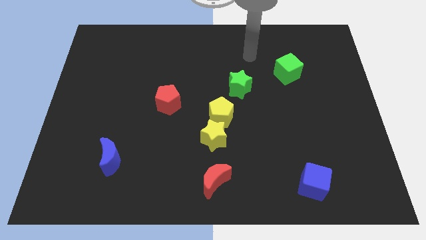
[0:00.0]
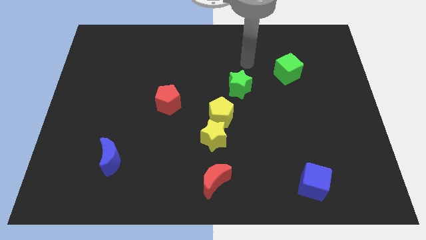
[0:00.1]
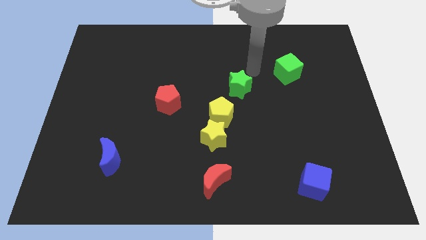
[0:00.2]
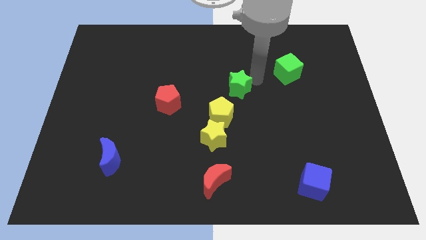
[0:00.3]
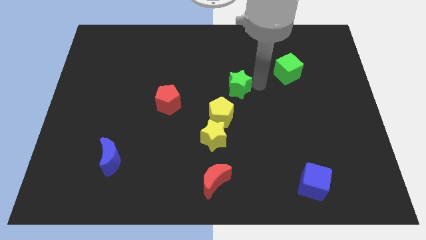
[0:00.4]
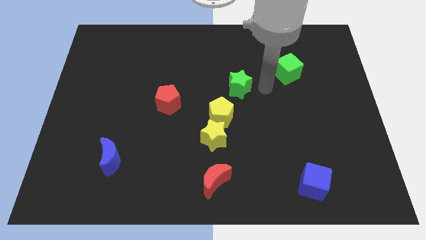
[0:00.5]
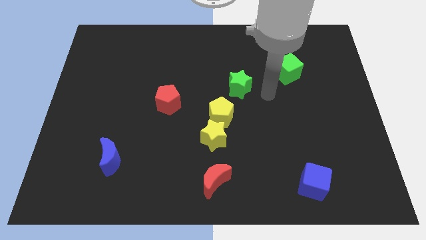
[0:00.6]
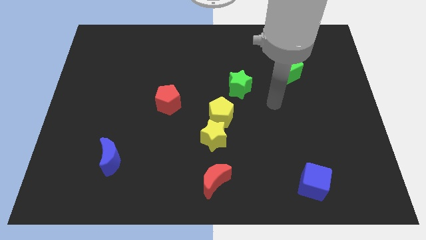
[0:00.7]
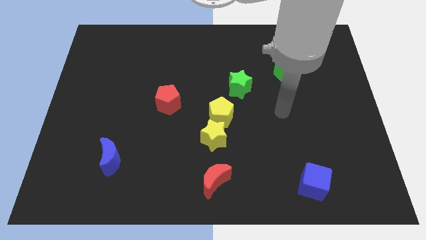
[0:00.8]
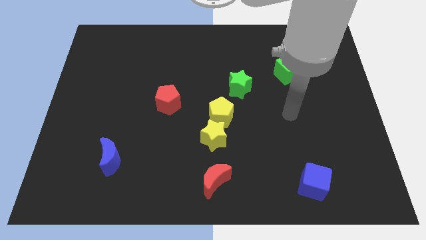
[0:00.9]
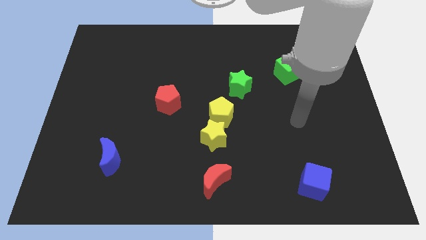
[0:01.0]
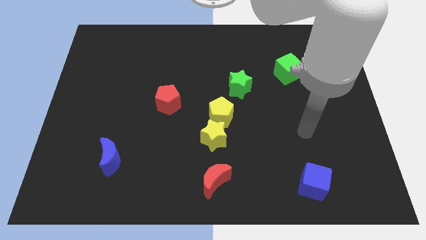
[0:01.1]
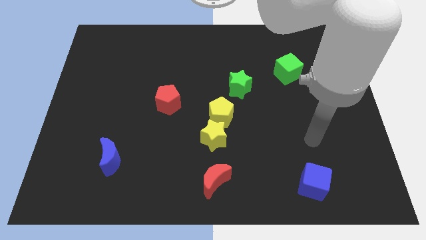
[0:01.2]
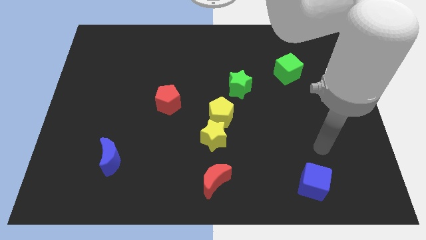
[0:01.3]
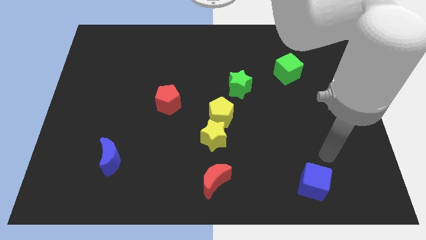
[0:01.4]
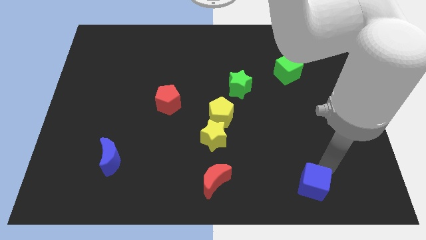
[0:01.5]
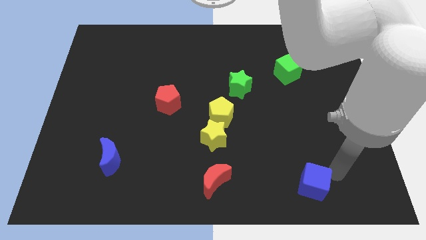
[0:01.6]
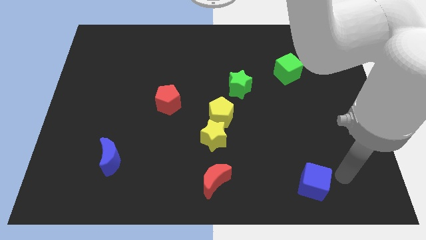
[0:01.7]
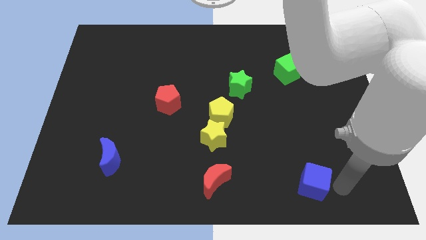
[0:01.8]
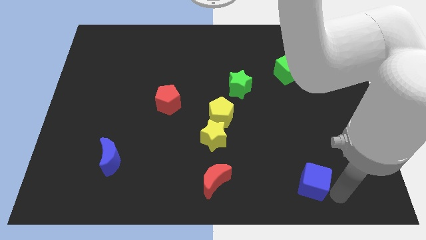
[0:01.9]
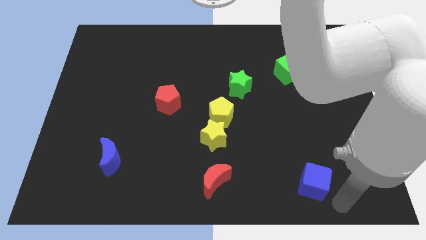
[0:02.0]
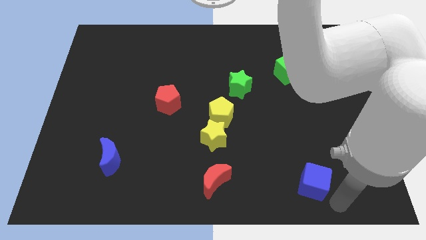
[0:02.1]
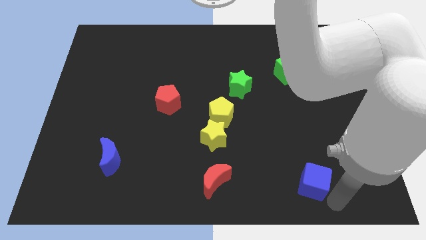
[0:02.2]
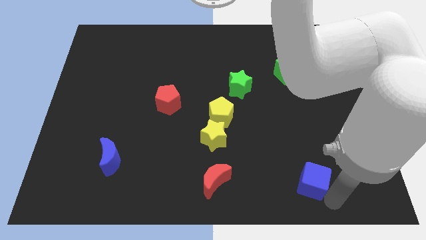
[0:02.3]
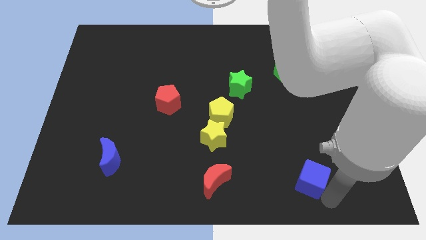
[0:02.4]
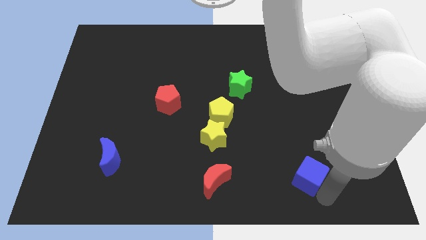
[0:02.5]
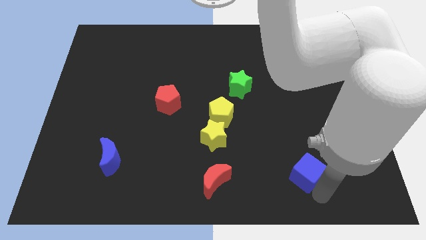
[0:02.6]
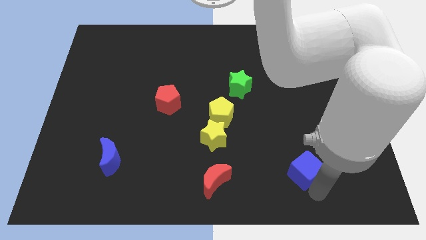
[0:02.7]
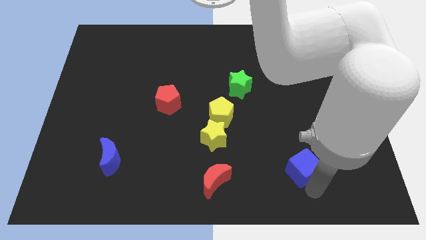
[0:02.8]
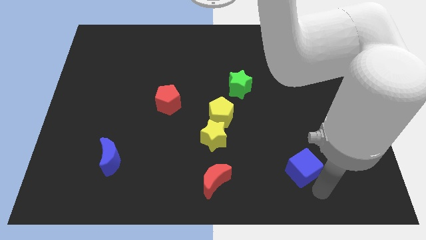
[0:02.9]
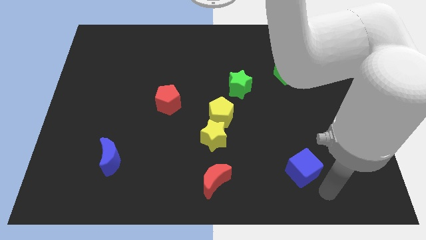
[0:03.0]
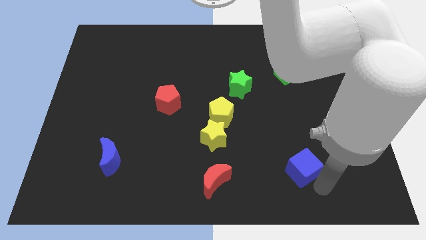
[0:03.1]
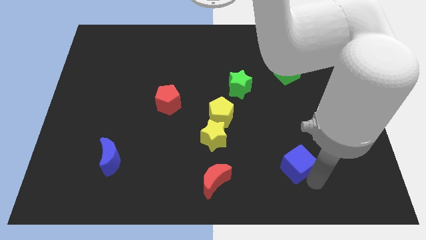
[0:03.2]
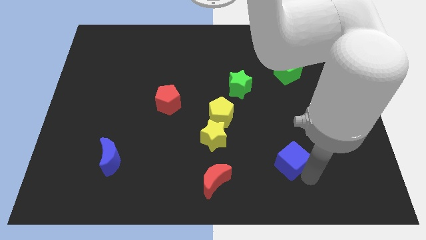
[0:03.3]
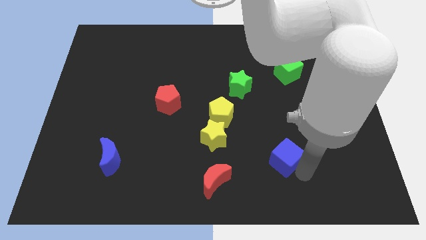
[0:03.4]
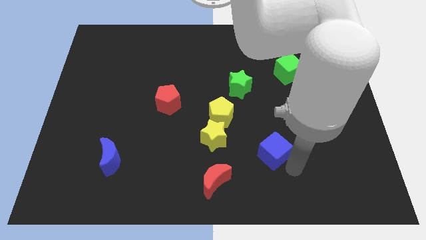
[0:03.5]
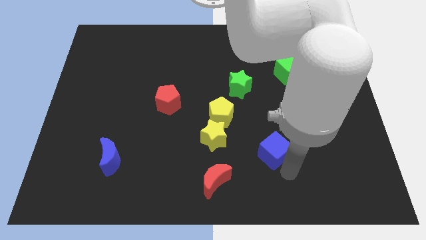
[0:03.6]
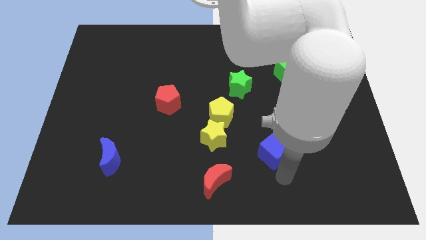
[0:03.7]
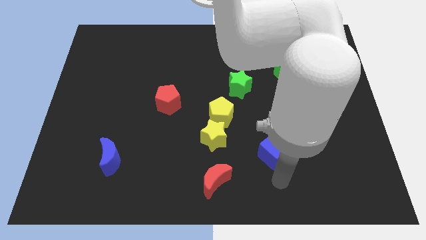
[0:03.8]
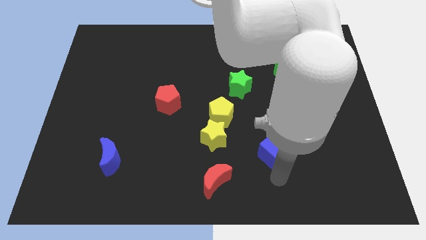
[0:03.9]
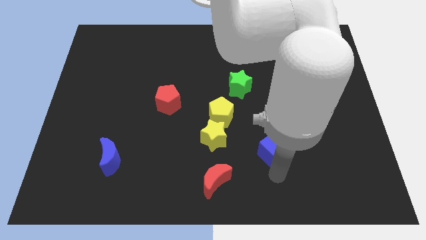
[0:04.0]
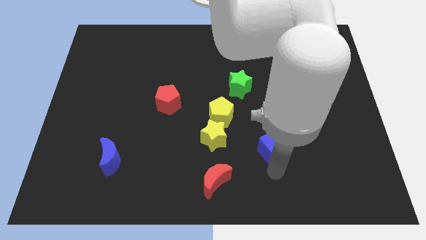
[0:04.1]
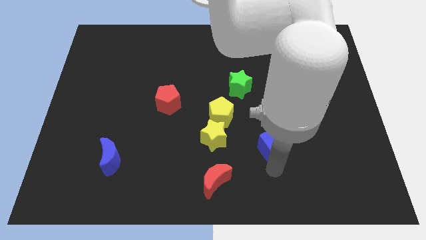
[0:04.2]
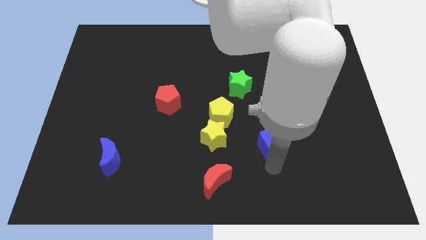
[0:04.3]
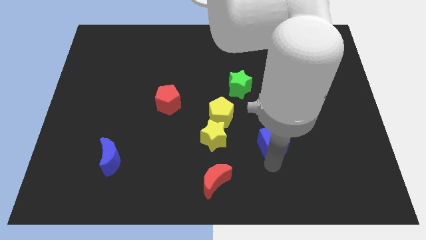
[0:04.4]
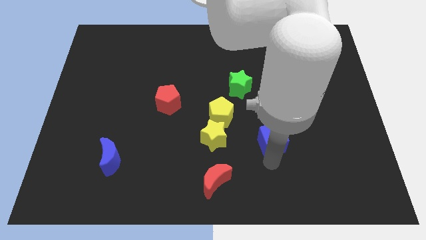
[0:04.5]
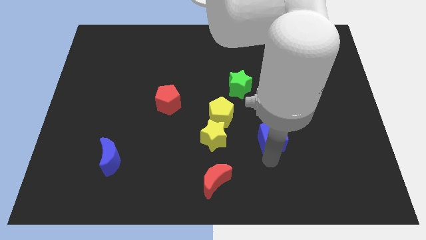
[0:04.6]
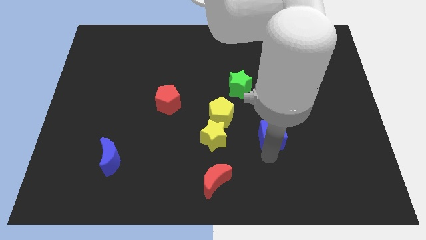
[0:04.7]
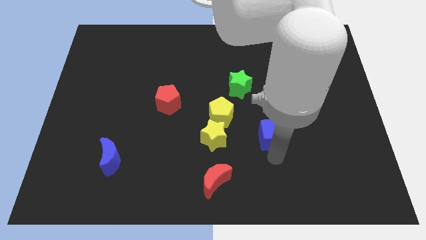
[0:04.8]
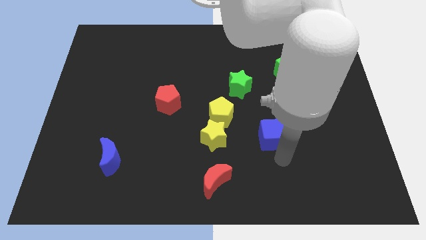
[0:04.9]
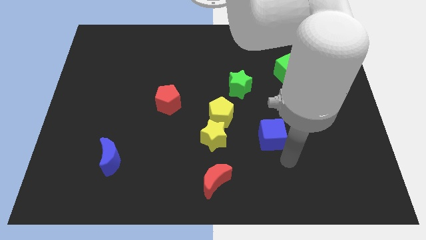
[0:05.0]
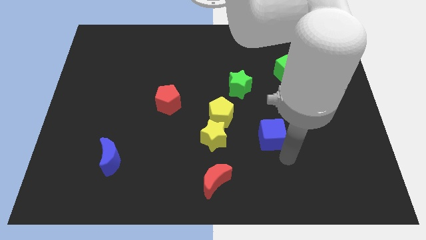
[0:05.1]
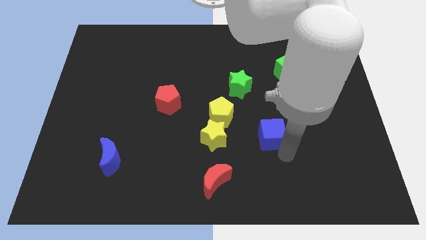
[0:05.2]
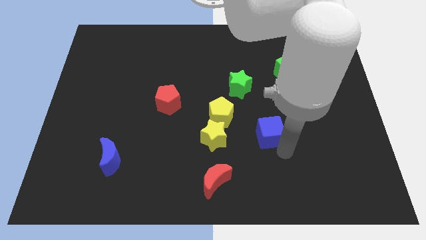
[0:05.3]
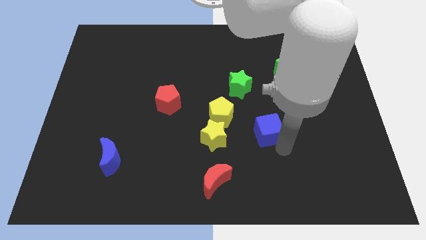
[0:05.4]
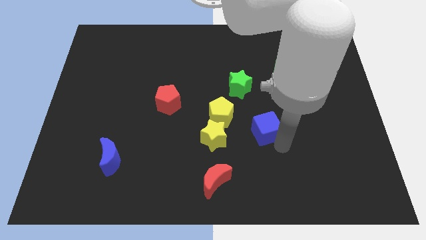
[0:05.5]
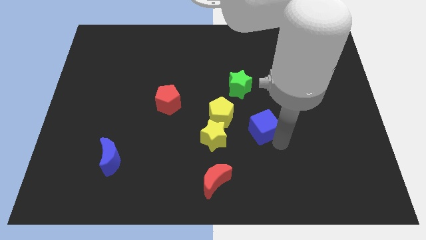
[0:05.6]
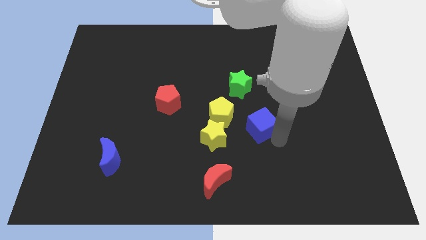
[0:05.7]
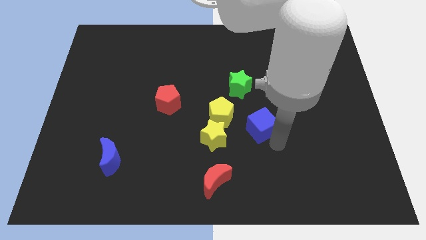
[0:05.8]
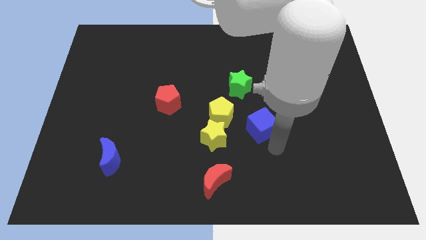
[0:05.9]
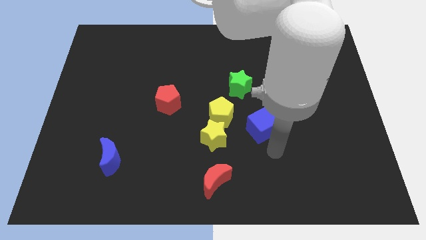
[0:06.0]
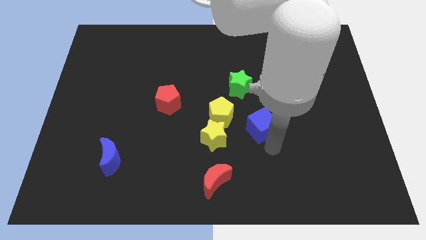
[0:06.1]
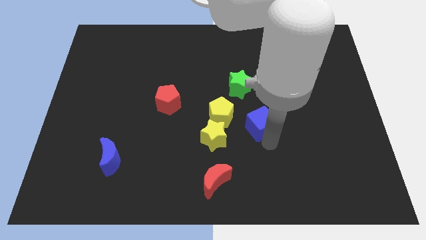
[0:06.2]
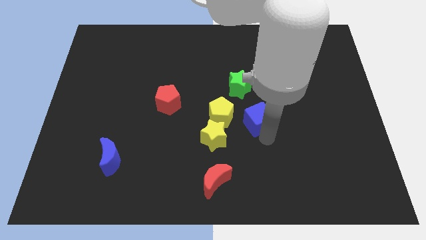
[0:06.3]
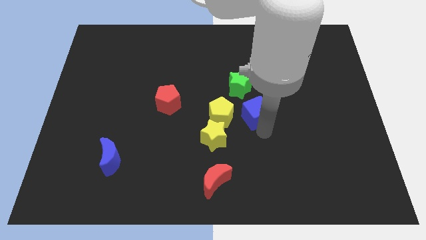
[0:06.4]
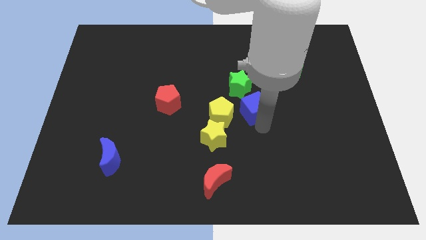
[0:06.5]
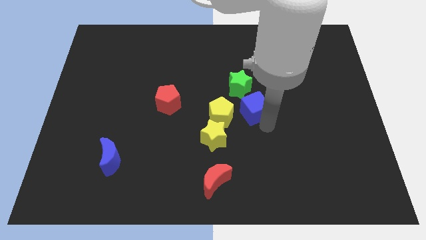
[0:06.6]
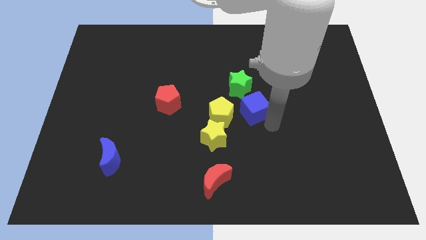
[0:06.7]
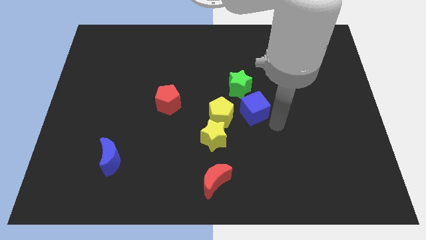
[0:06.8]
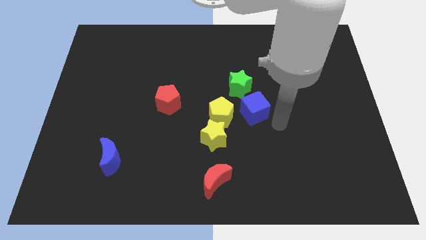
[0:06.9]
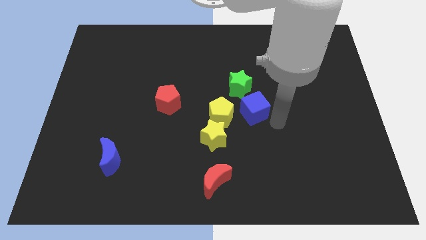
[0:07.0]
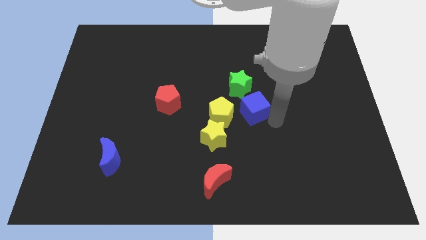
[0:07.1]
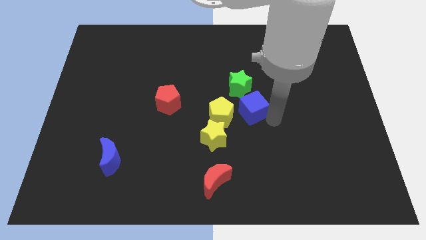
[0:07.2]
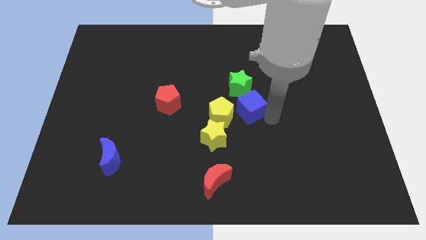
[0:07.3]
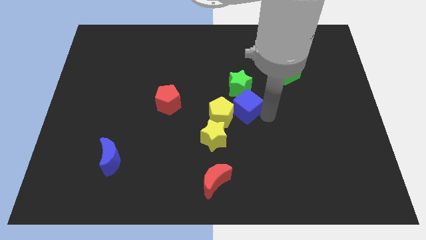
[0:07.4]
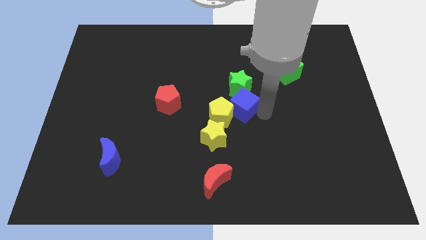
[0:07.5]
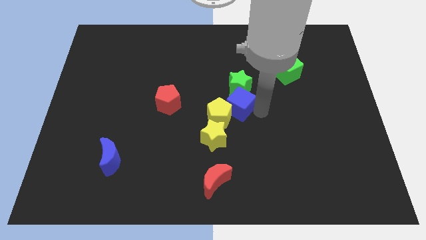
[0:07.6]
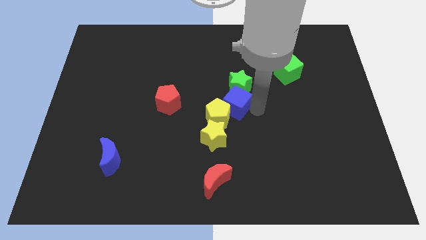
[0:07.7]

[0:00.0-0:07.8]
move the blue cube to the top of the yellow pentagon
